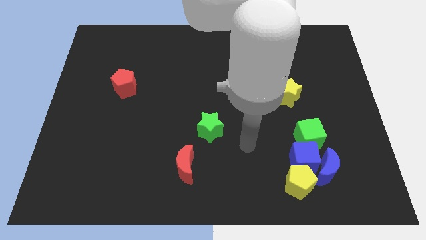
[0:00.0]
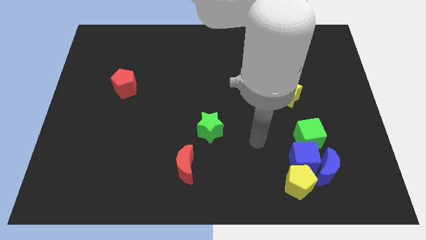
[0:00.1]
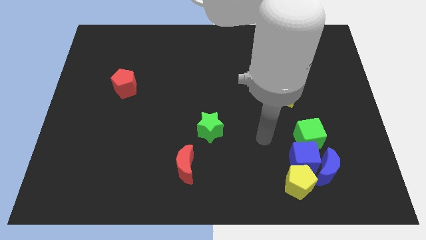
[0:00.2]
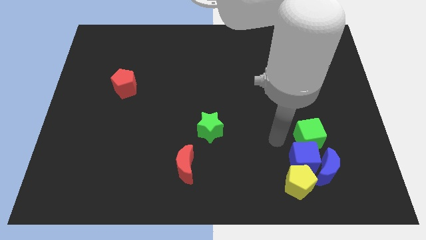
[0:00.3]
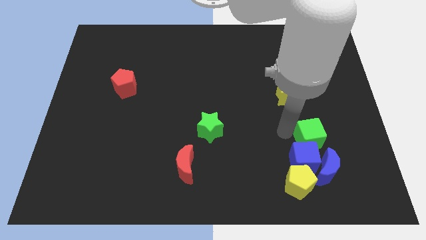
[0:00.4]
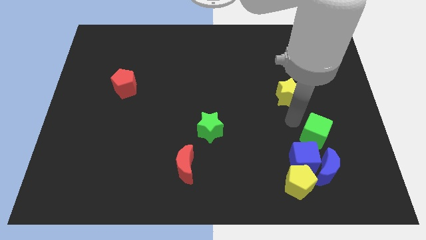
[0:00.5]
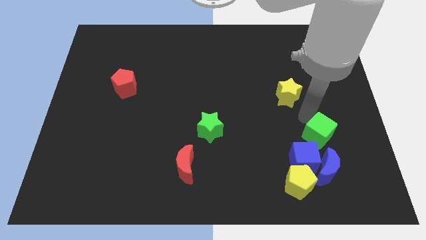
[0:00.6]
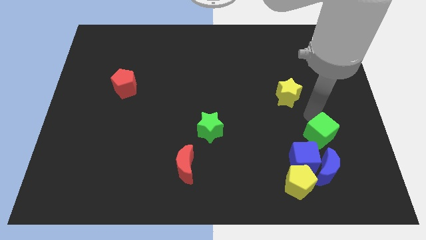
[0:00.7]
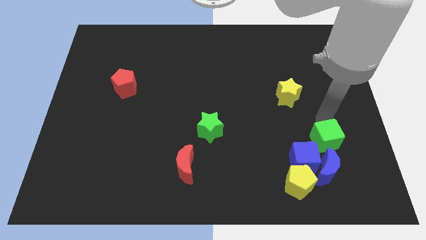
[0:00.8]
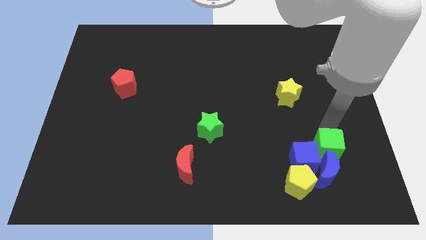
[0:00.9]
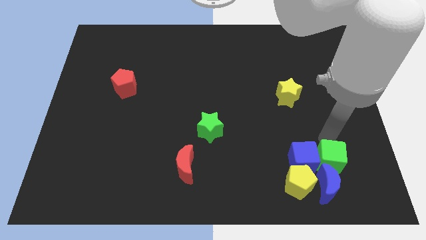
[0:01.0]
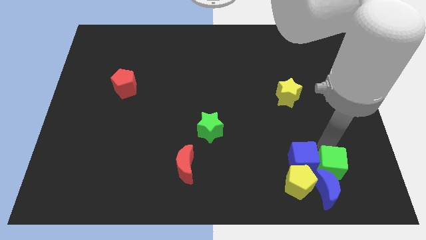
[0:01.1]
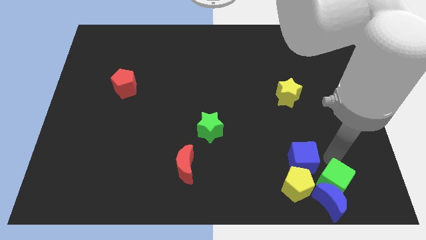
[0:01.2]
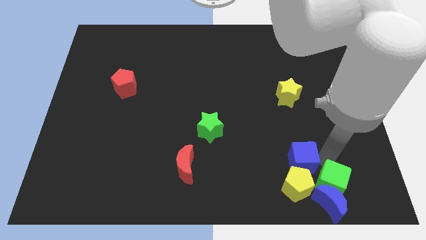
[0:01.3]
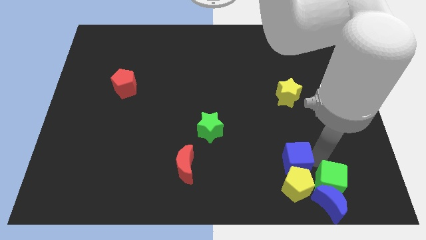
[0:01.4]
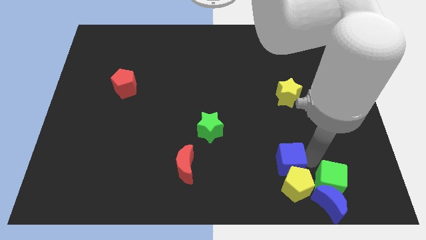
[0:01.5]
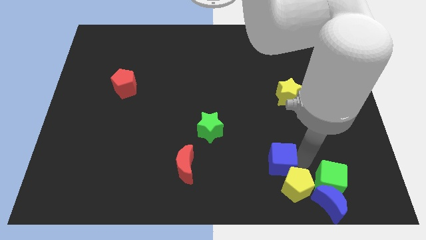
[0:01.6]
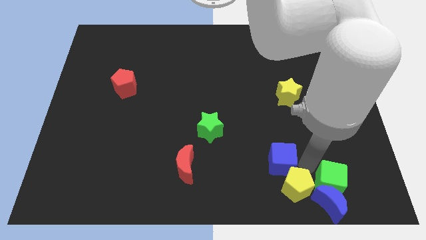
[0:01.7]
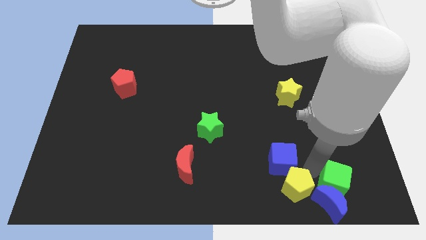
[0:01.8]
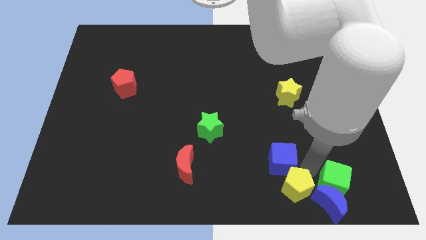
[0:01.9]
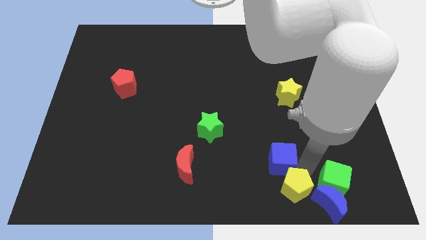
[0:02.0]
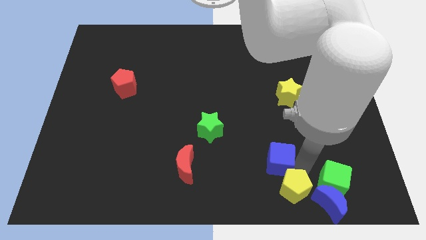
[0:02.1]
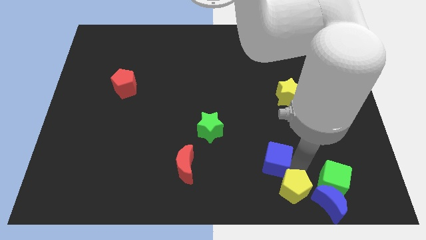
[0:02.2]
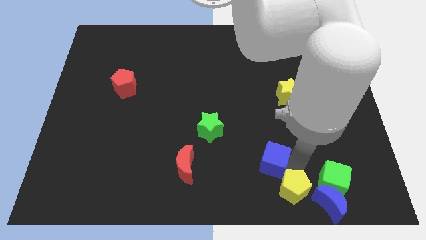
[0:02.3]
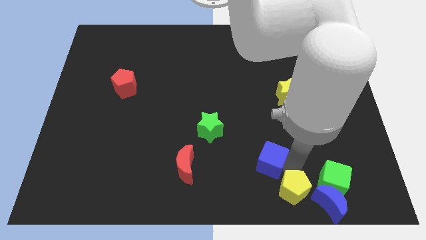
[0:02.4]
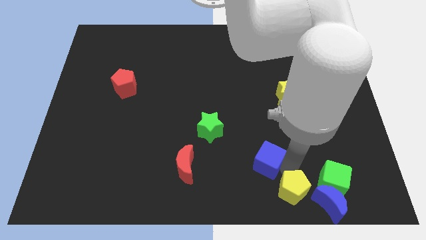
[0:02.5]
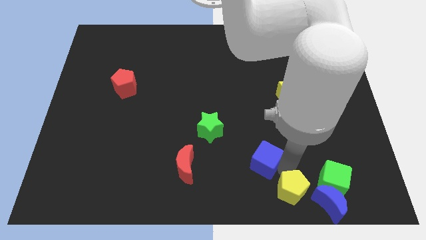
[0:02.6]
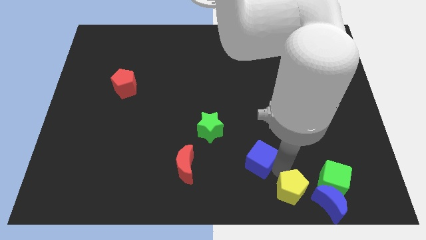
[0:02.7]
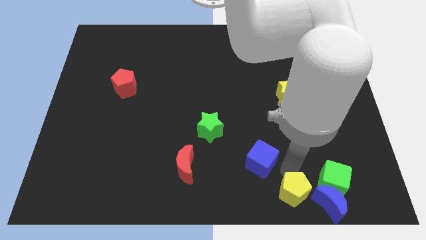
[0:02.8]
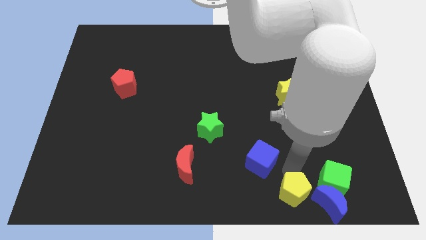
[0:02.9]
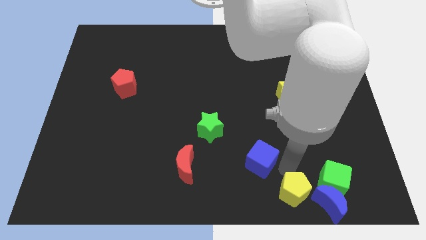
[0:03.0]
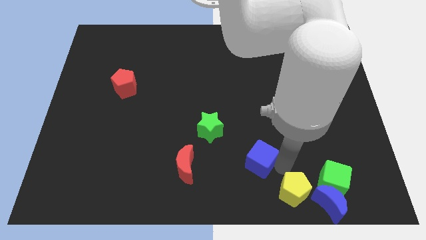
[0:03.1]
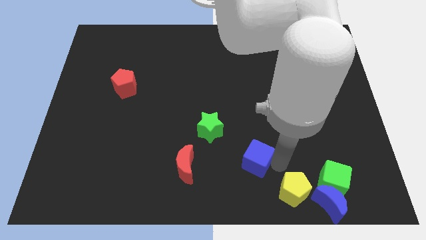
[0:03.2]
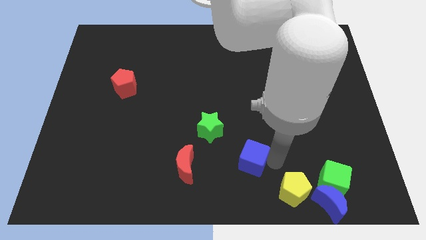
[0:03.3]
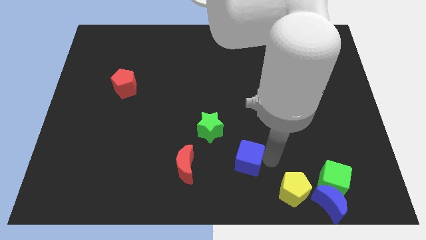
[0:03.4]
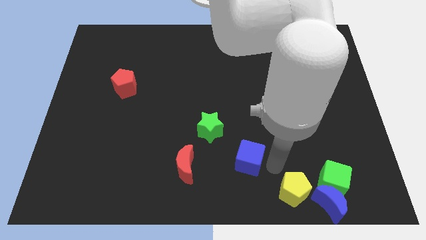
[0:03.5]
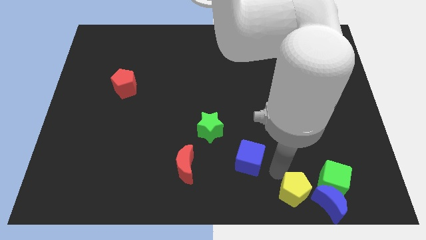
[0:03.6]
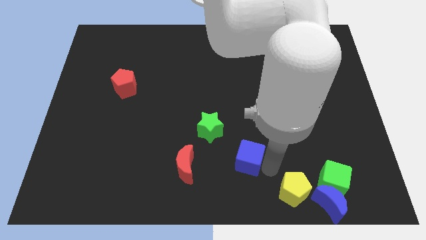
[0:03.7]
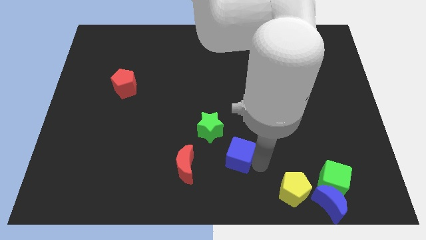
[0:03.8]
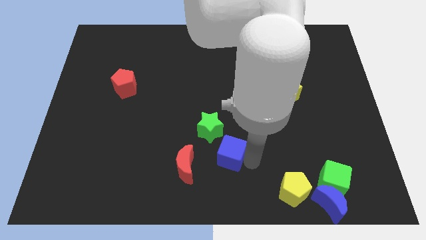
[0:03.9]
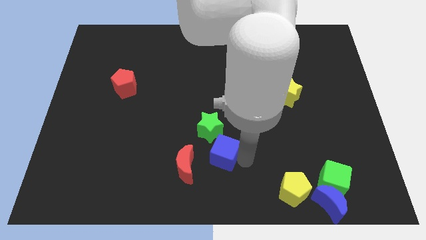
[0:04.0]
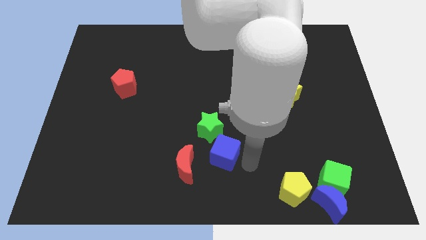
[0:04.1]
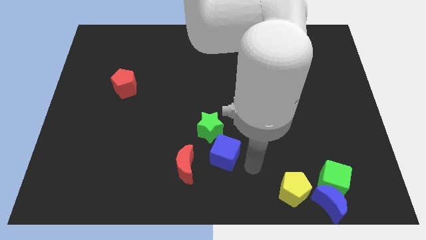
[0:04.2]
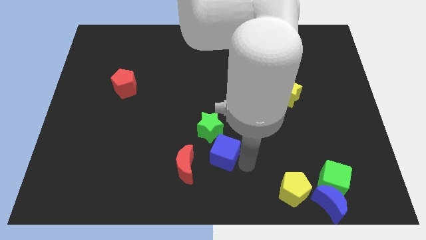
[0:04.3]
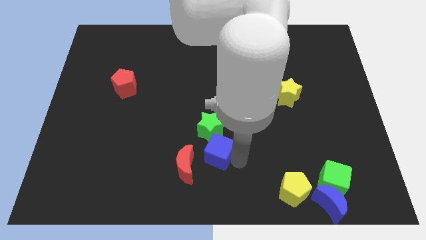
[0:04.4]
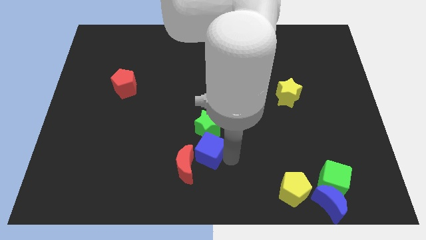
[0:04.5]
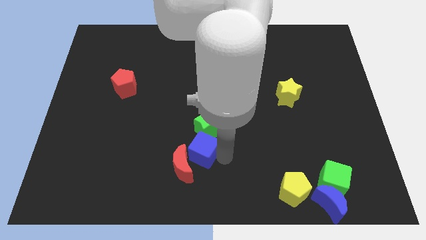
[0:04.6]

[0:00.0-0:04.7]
move the blue cube left

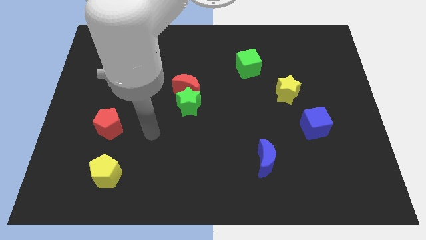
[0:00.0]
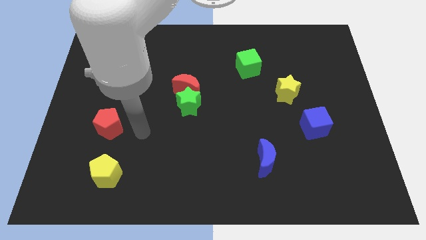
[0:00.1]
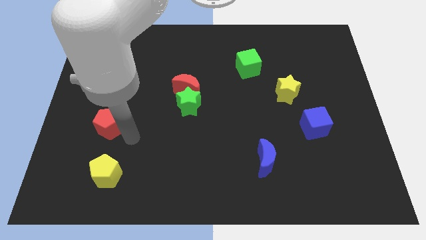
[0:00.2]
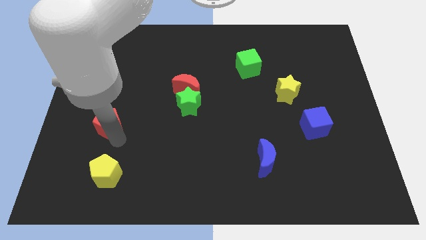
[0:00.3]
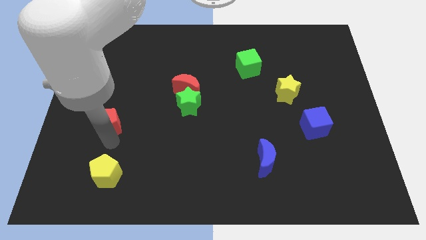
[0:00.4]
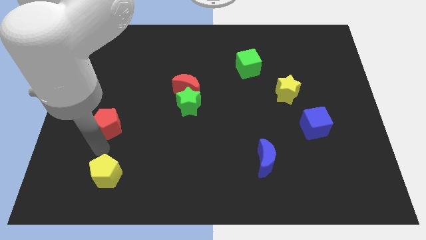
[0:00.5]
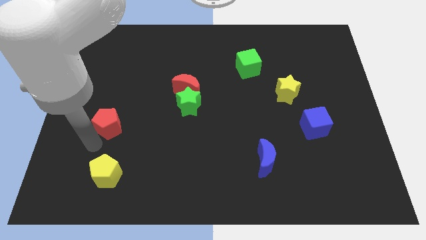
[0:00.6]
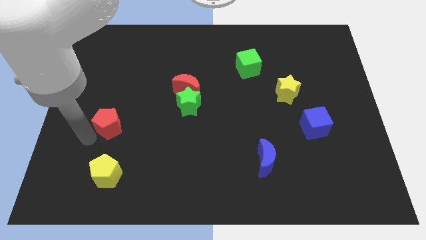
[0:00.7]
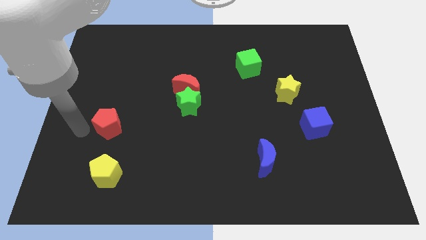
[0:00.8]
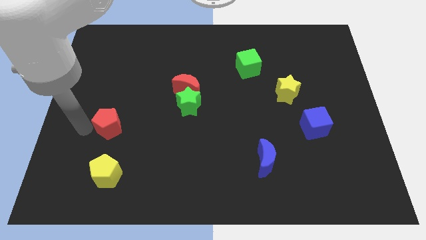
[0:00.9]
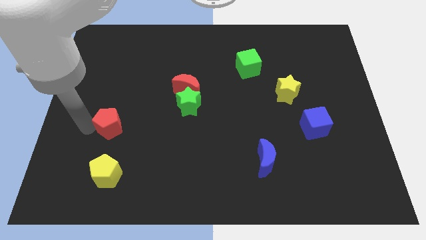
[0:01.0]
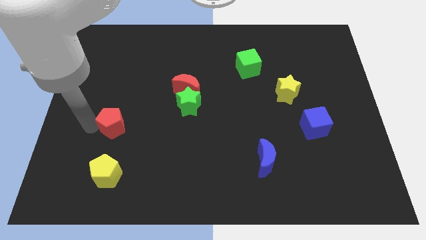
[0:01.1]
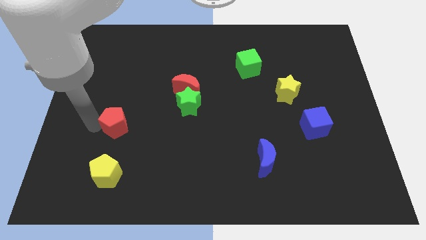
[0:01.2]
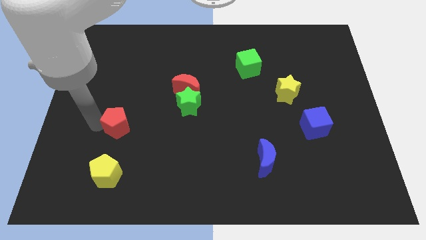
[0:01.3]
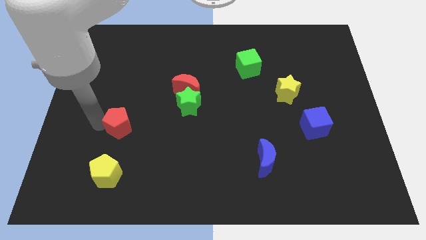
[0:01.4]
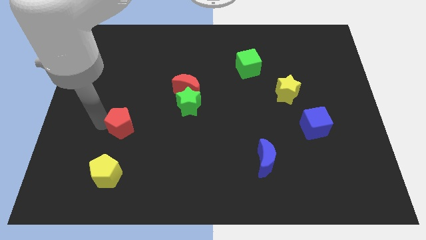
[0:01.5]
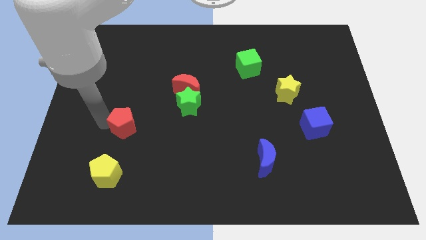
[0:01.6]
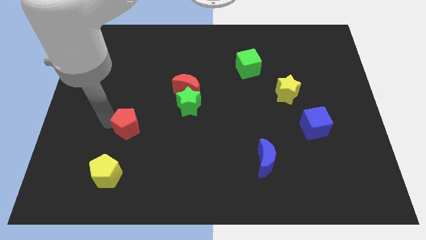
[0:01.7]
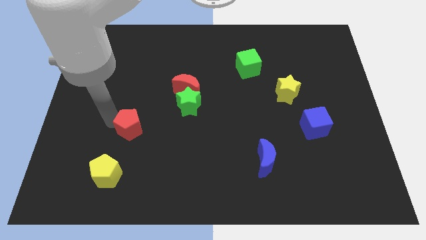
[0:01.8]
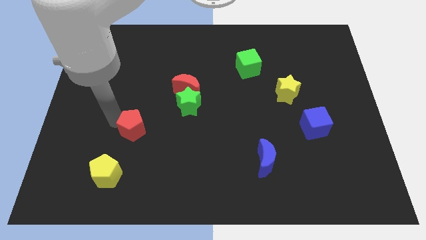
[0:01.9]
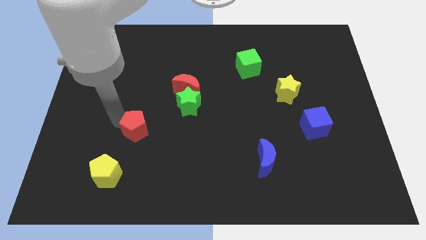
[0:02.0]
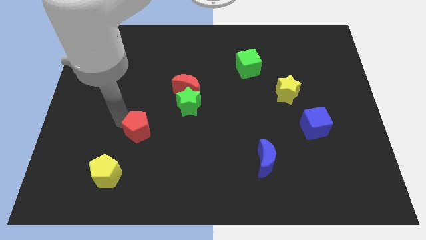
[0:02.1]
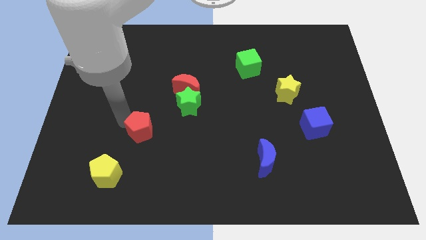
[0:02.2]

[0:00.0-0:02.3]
push the red pentagon right a bit

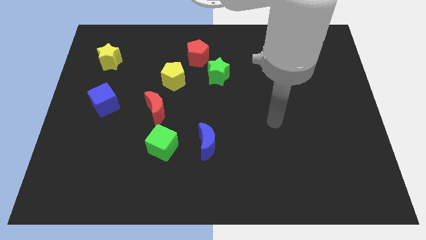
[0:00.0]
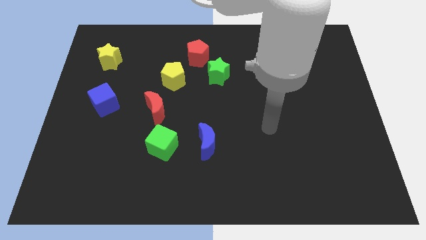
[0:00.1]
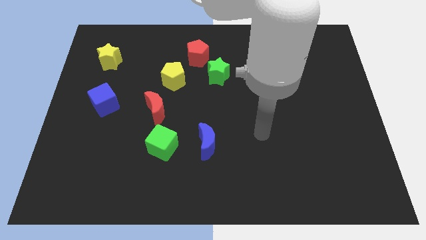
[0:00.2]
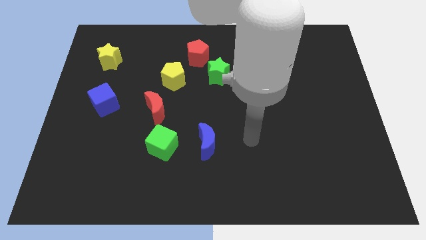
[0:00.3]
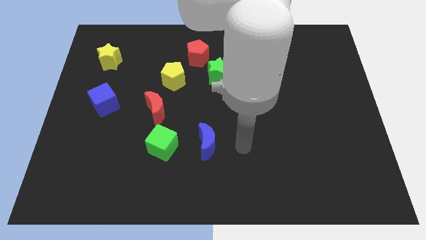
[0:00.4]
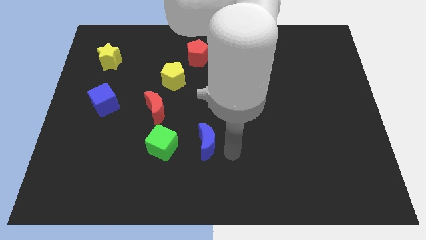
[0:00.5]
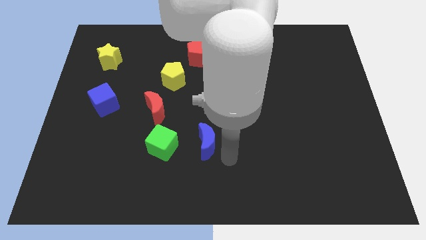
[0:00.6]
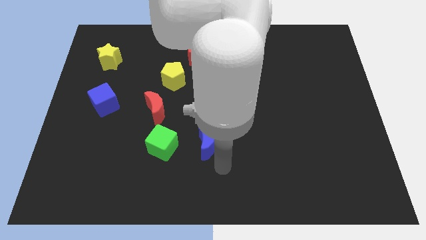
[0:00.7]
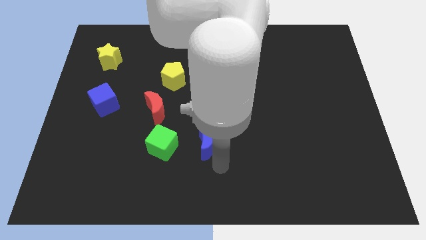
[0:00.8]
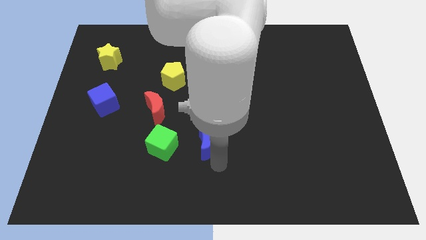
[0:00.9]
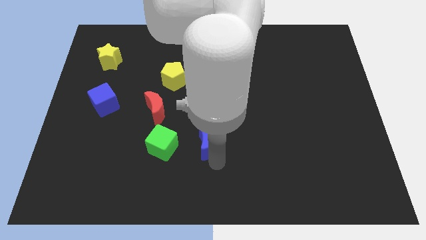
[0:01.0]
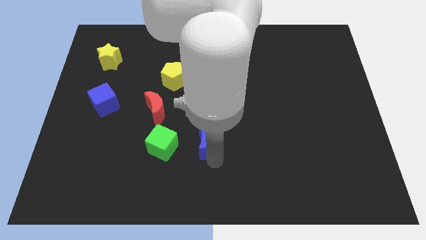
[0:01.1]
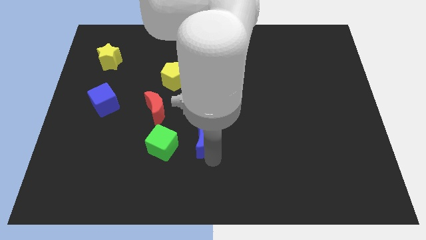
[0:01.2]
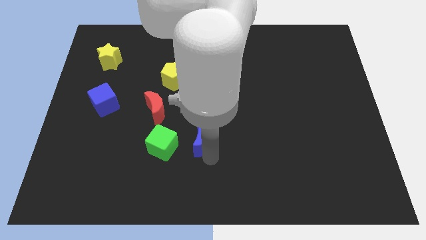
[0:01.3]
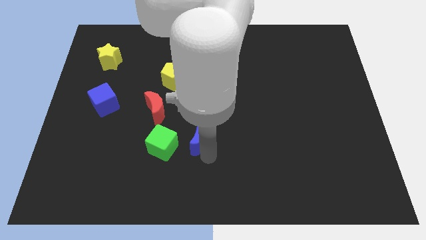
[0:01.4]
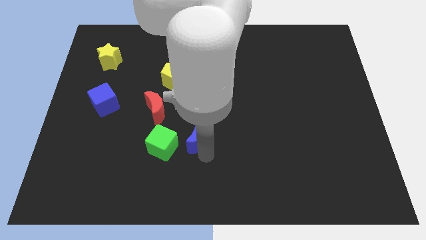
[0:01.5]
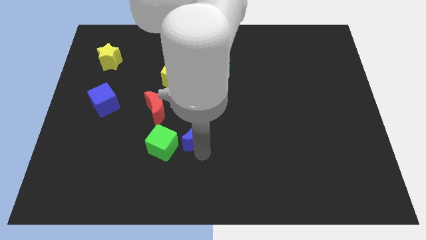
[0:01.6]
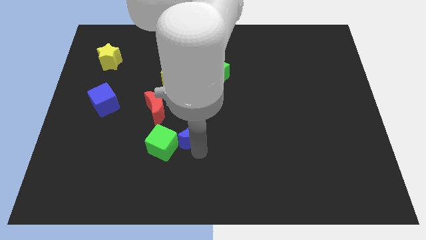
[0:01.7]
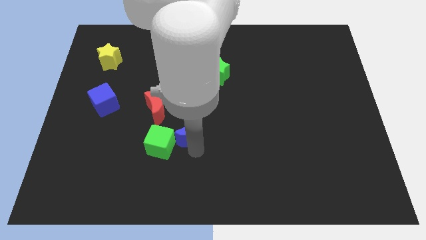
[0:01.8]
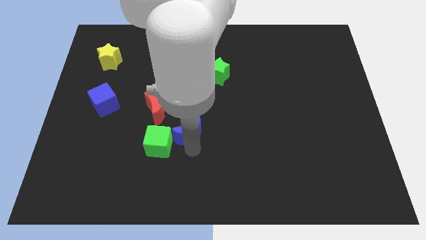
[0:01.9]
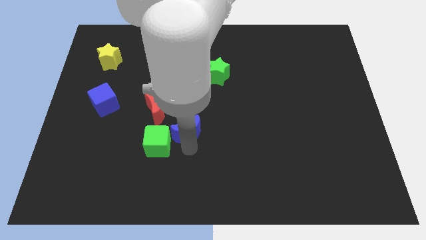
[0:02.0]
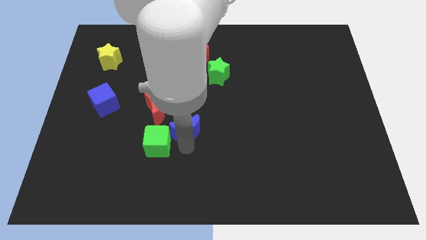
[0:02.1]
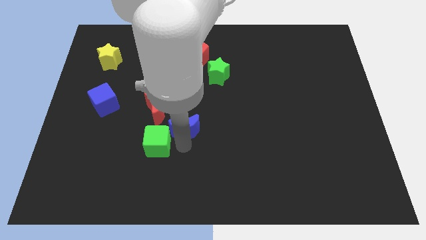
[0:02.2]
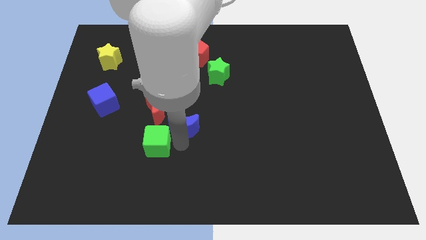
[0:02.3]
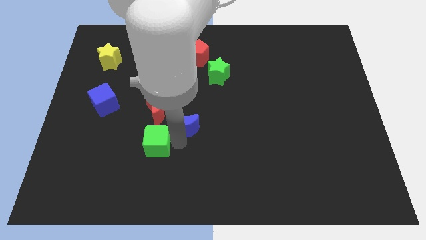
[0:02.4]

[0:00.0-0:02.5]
push the blue moon upwards and left somewhat
